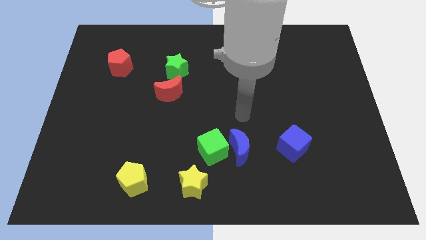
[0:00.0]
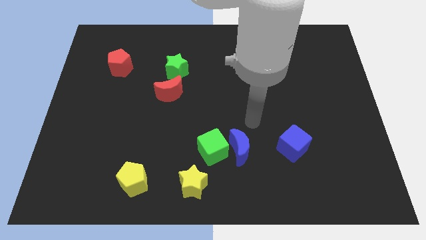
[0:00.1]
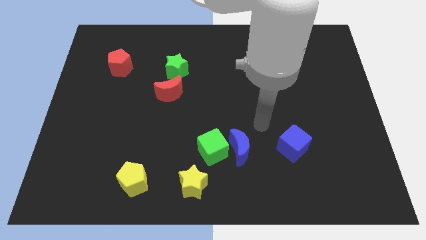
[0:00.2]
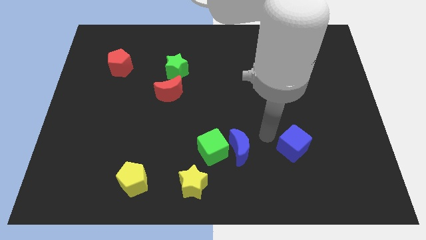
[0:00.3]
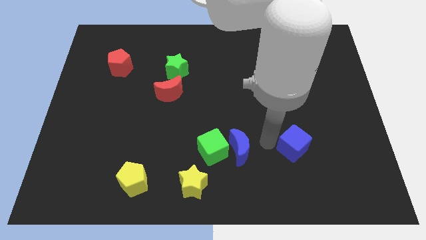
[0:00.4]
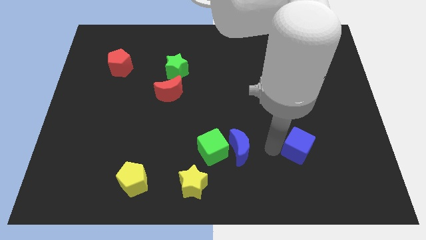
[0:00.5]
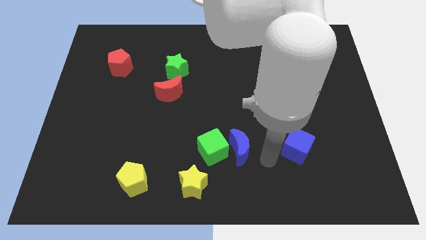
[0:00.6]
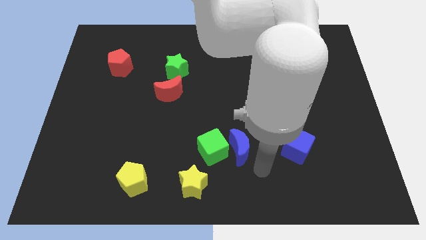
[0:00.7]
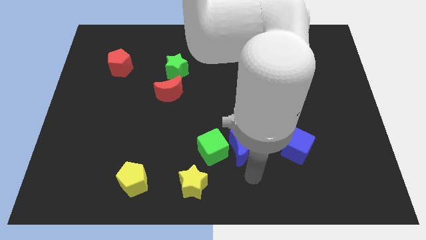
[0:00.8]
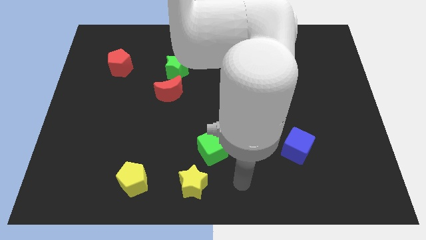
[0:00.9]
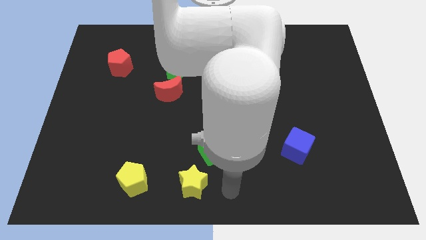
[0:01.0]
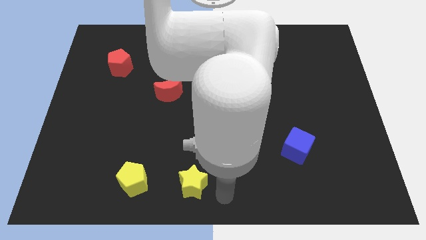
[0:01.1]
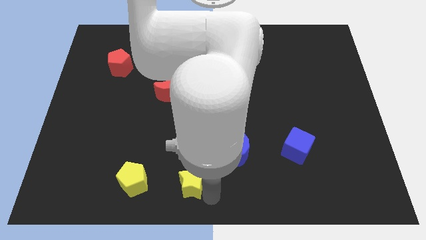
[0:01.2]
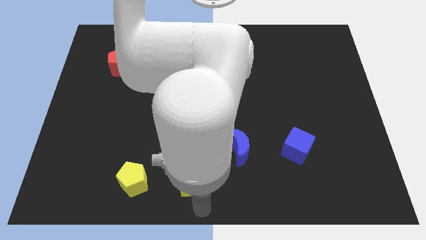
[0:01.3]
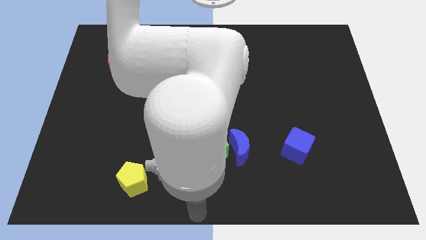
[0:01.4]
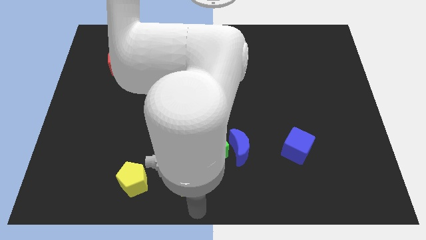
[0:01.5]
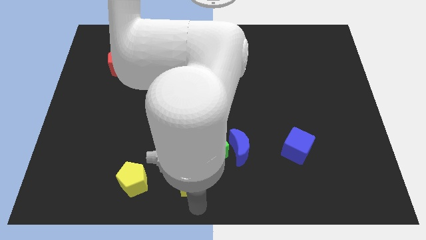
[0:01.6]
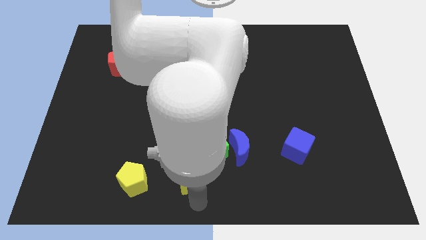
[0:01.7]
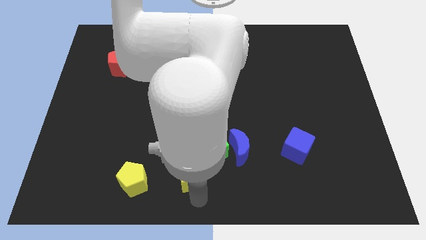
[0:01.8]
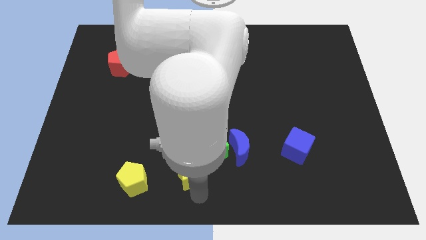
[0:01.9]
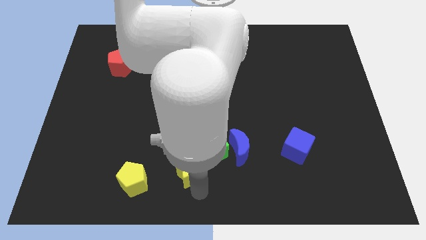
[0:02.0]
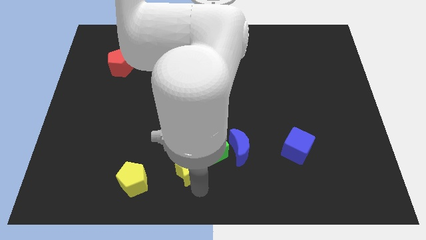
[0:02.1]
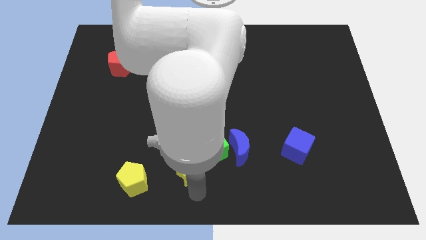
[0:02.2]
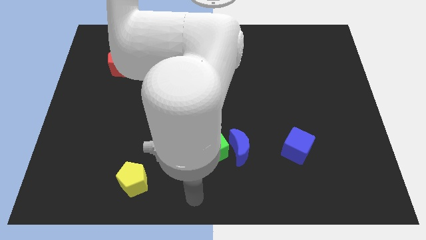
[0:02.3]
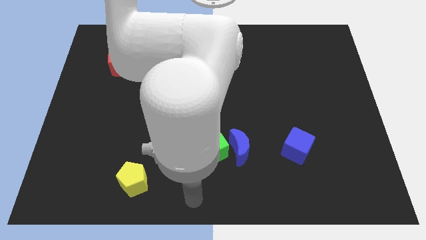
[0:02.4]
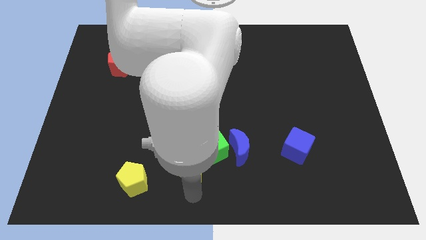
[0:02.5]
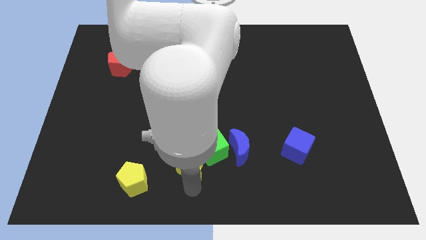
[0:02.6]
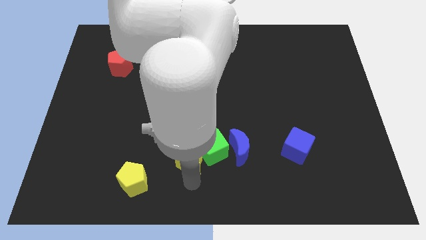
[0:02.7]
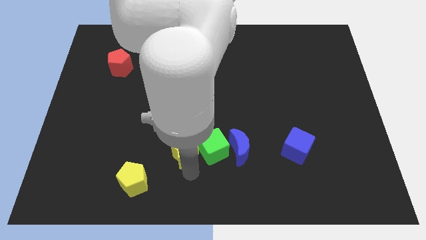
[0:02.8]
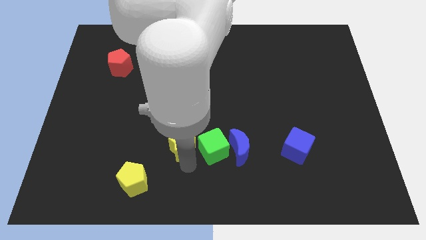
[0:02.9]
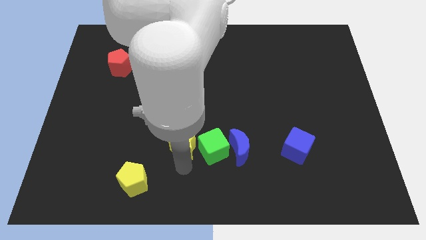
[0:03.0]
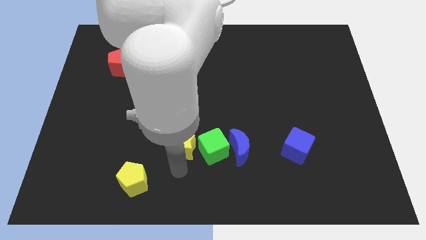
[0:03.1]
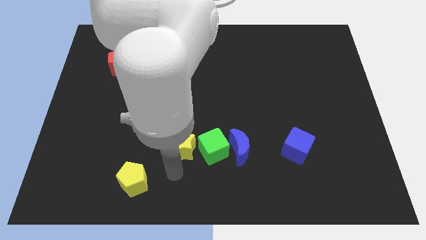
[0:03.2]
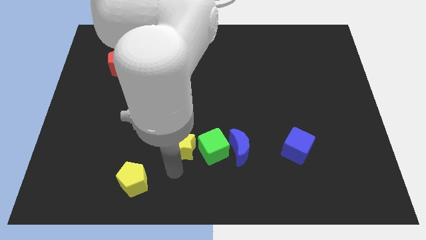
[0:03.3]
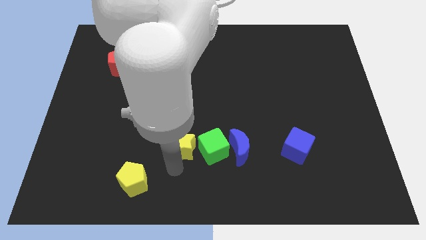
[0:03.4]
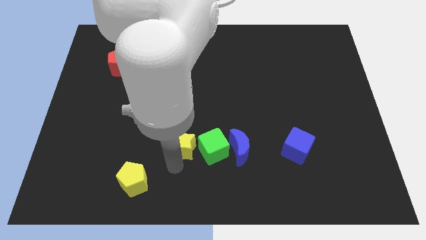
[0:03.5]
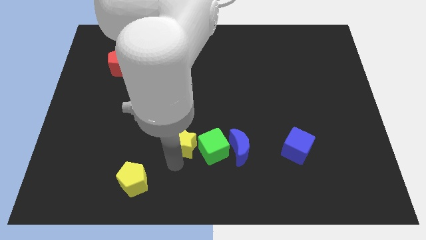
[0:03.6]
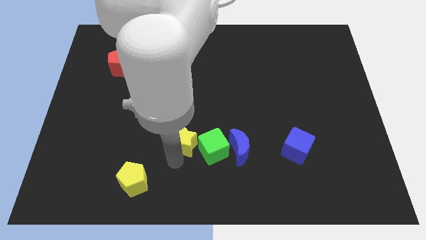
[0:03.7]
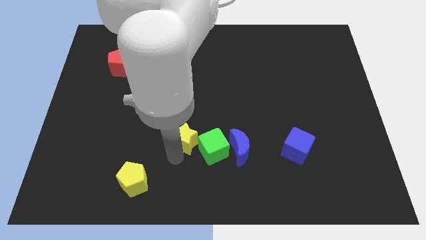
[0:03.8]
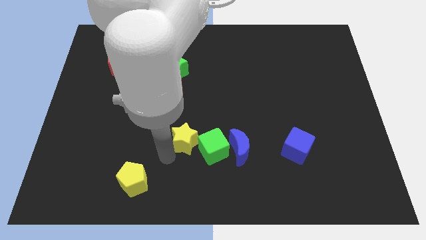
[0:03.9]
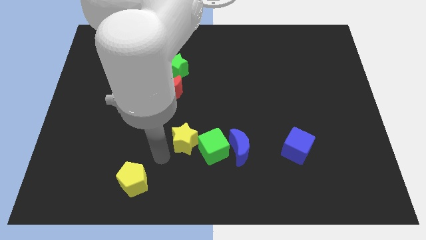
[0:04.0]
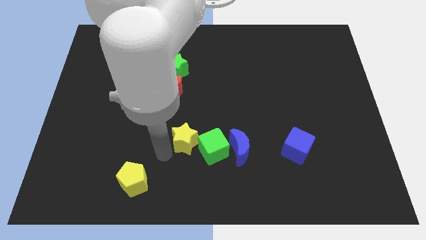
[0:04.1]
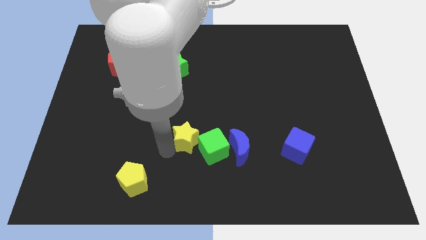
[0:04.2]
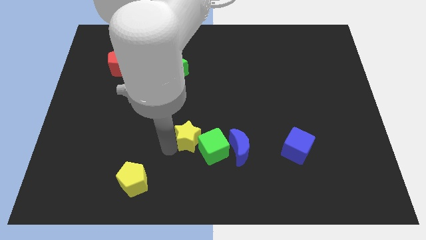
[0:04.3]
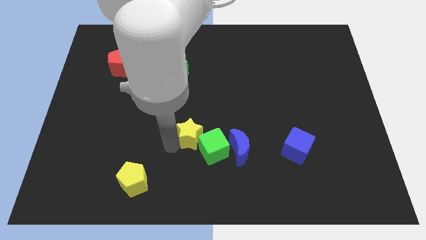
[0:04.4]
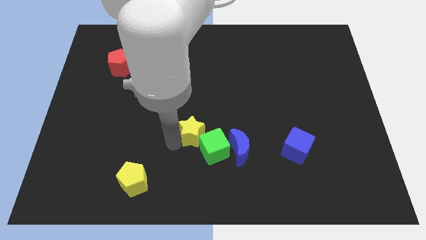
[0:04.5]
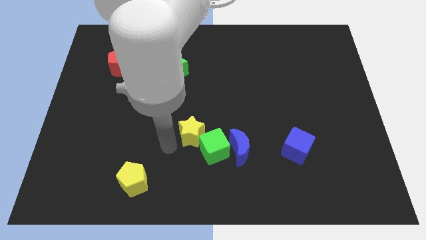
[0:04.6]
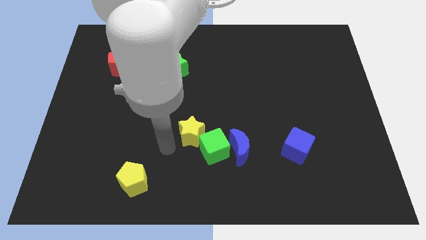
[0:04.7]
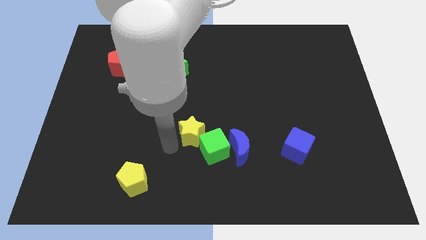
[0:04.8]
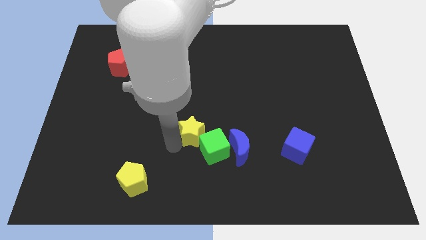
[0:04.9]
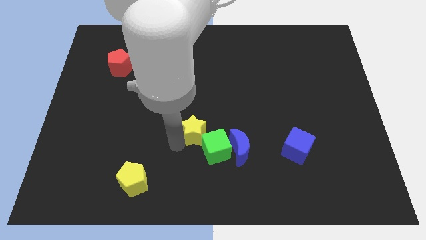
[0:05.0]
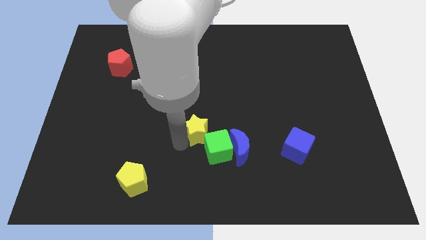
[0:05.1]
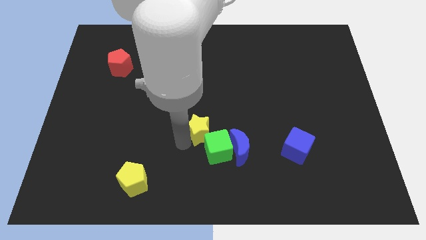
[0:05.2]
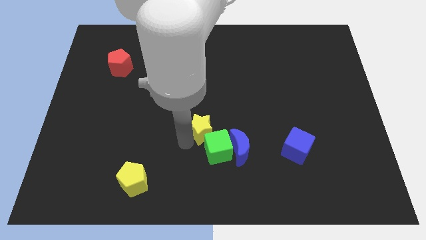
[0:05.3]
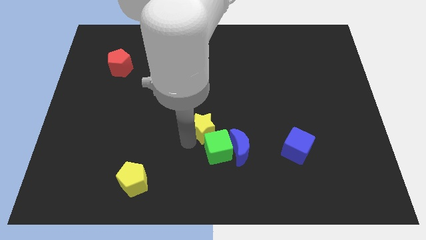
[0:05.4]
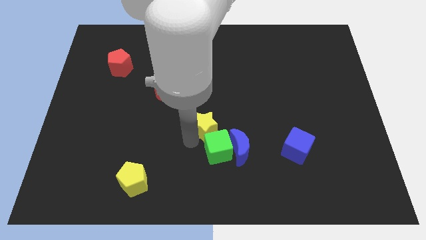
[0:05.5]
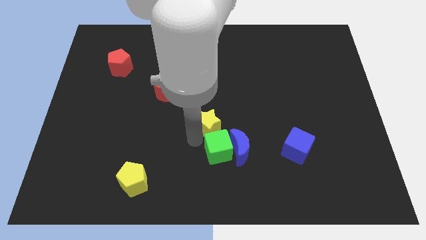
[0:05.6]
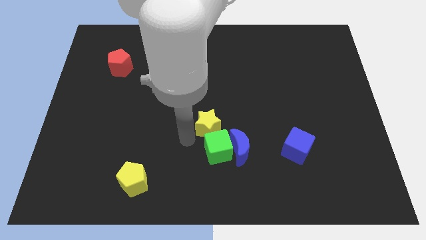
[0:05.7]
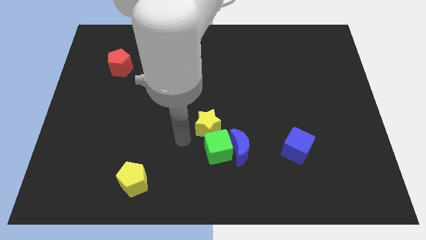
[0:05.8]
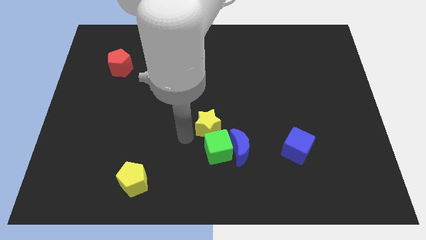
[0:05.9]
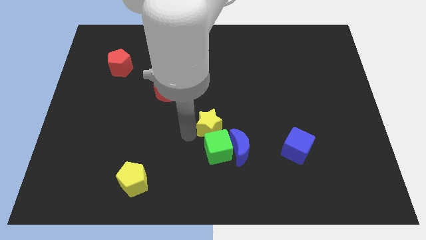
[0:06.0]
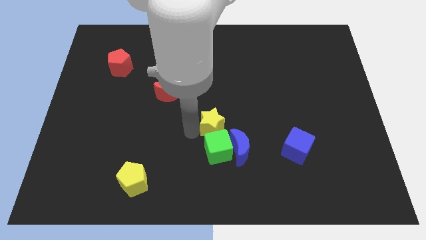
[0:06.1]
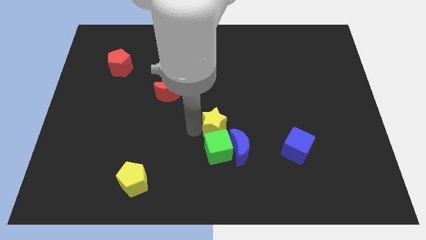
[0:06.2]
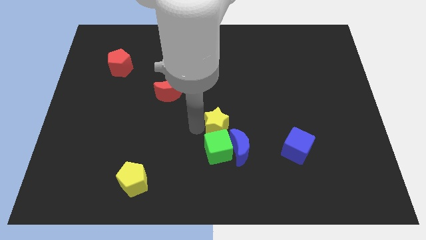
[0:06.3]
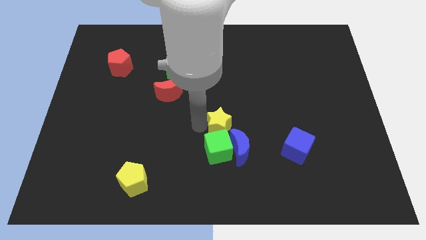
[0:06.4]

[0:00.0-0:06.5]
push the yellow star to the top side of the blue moon
